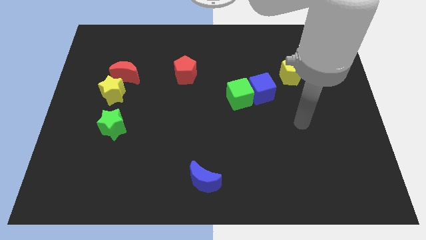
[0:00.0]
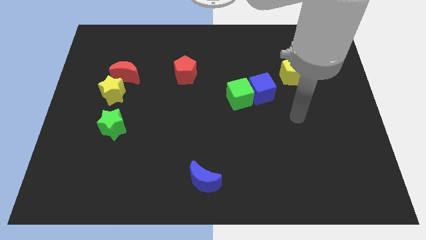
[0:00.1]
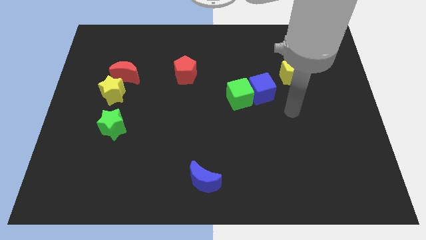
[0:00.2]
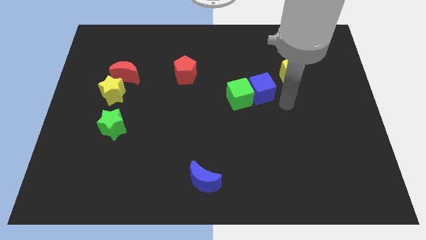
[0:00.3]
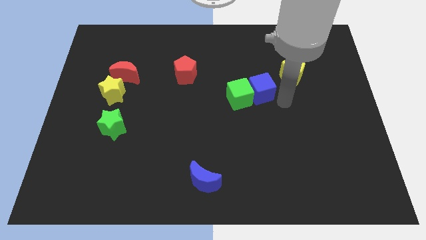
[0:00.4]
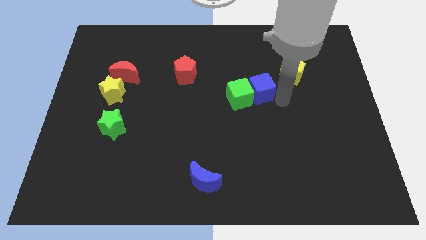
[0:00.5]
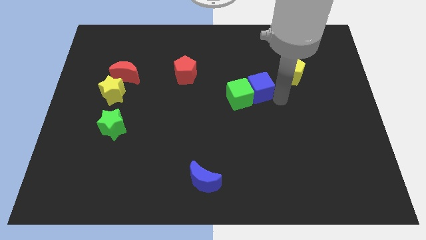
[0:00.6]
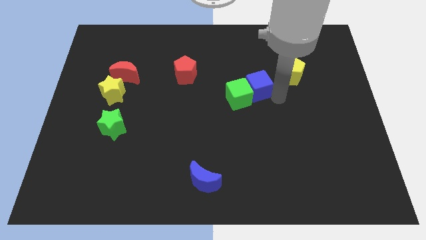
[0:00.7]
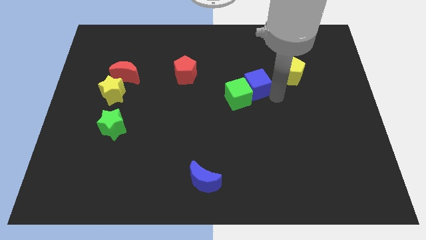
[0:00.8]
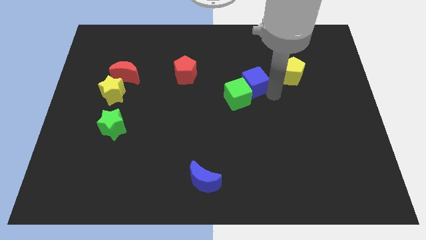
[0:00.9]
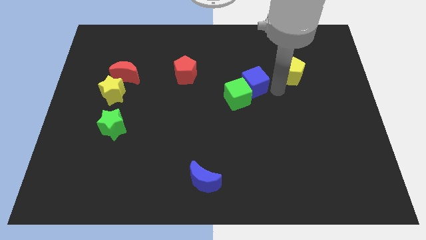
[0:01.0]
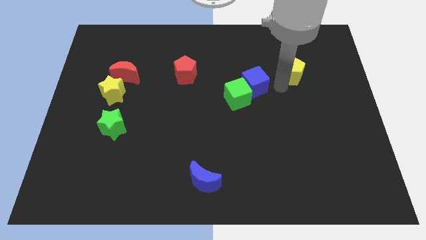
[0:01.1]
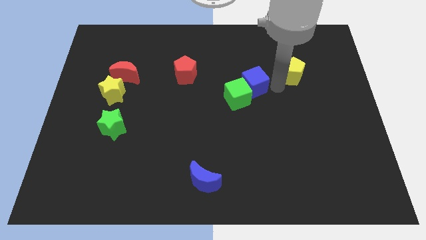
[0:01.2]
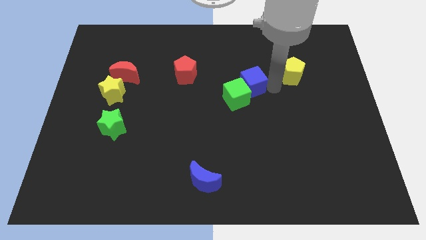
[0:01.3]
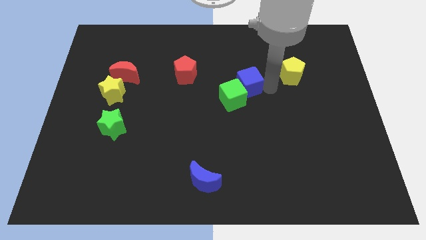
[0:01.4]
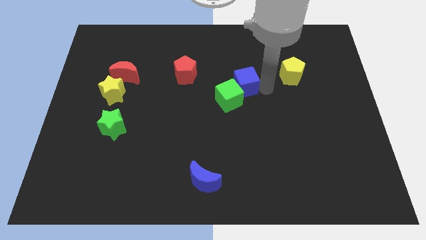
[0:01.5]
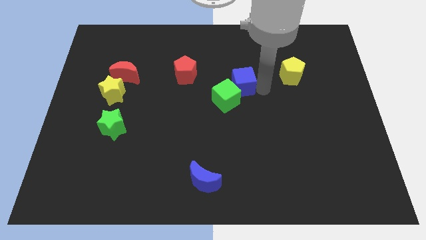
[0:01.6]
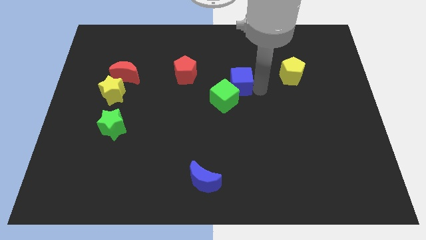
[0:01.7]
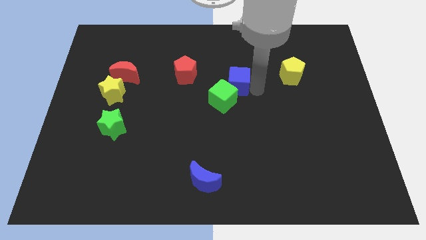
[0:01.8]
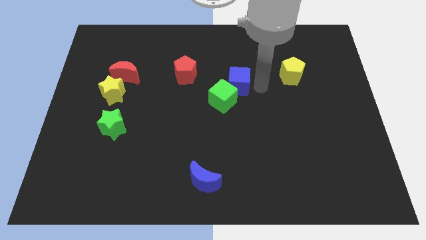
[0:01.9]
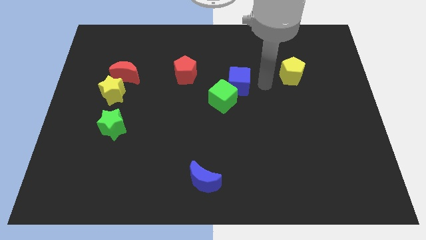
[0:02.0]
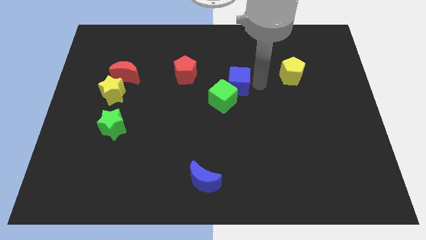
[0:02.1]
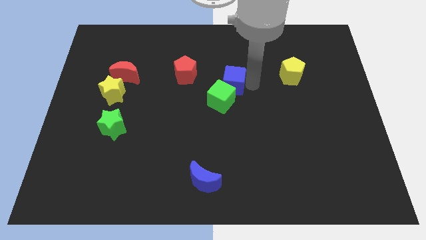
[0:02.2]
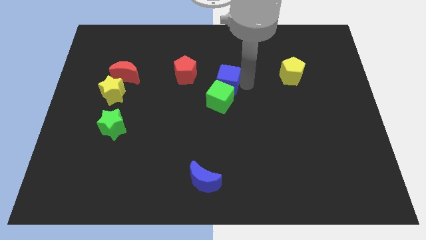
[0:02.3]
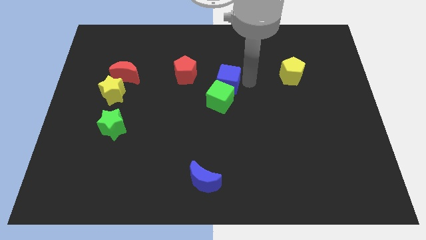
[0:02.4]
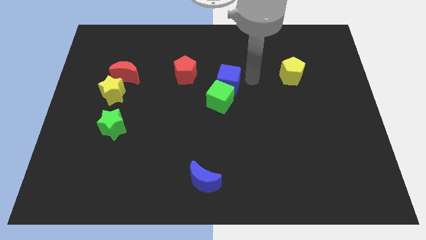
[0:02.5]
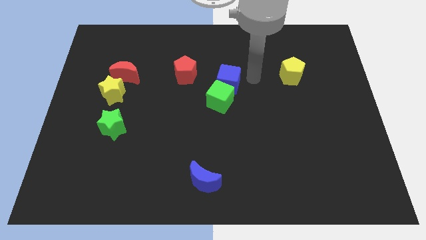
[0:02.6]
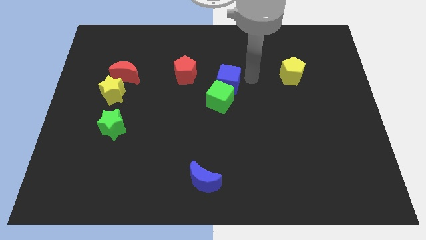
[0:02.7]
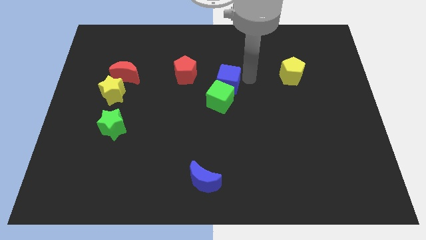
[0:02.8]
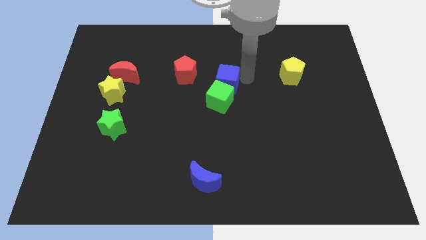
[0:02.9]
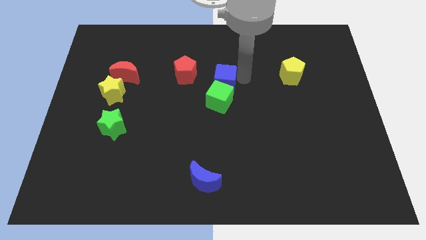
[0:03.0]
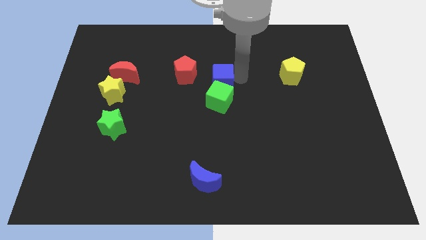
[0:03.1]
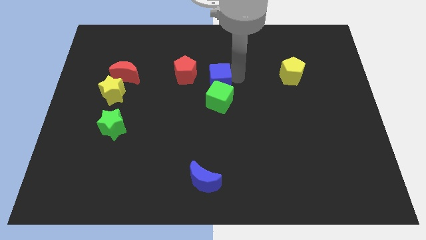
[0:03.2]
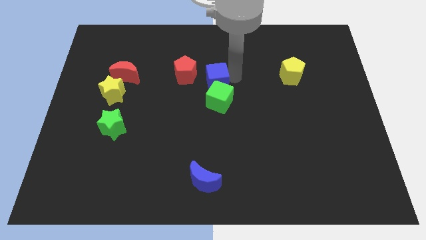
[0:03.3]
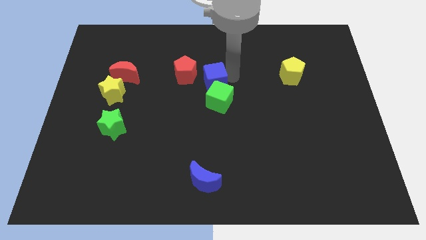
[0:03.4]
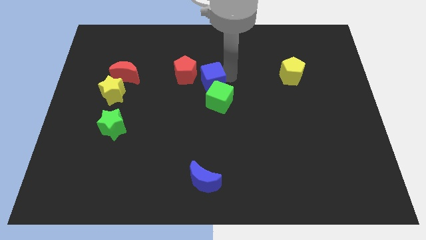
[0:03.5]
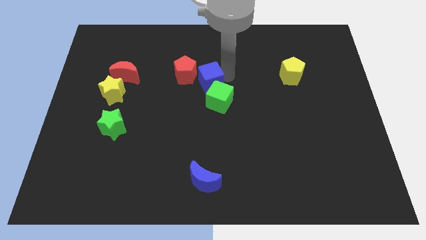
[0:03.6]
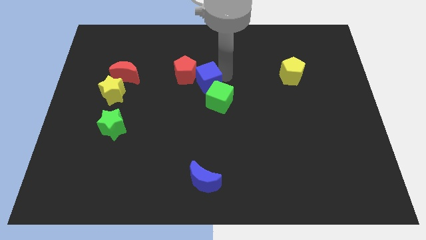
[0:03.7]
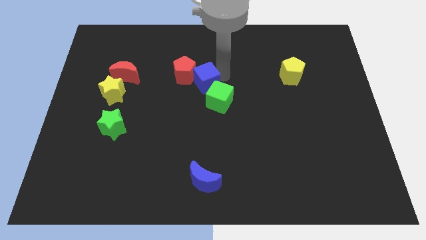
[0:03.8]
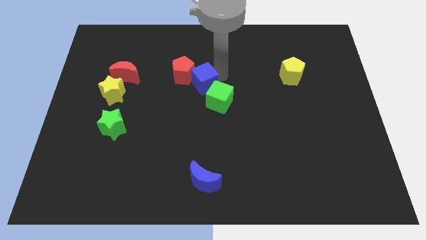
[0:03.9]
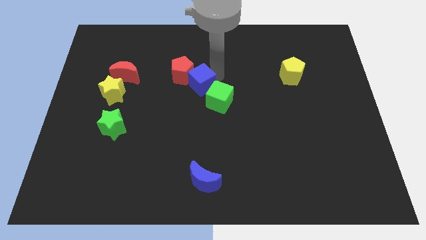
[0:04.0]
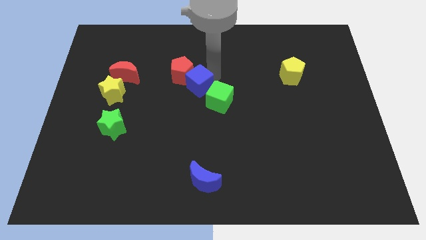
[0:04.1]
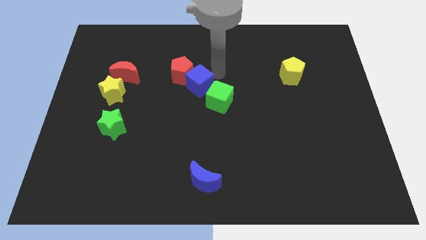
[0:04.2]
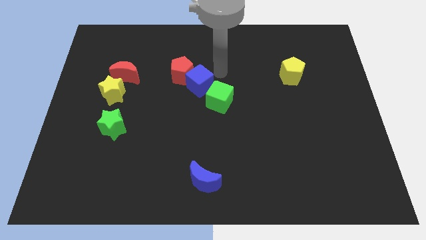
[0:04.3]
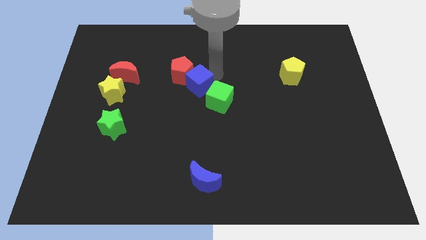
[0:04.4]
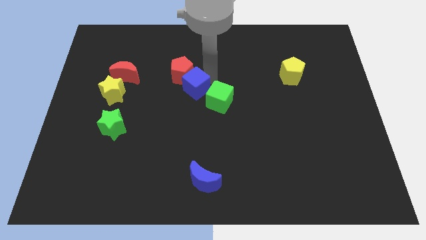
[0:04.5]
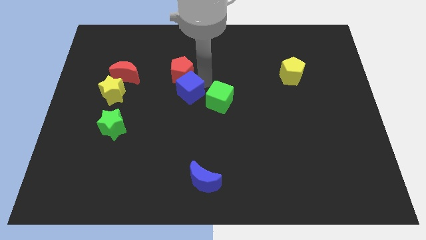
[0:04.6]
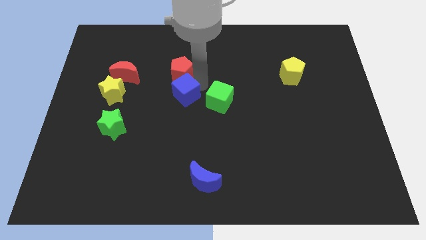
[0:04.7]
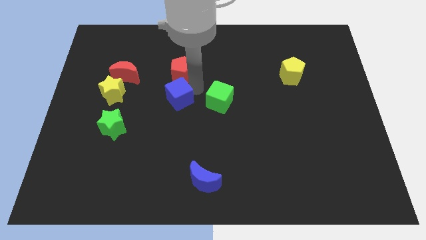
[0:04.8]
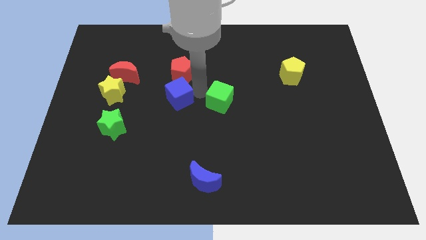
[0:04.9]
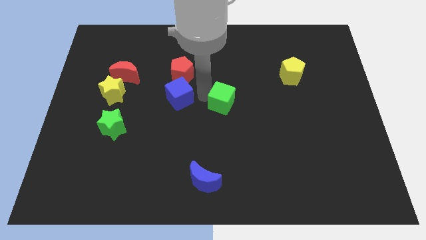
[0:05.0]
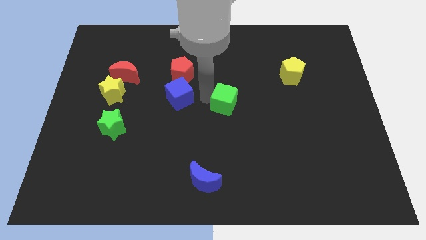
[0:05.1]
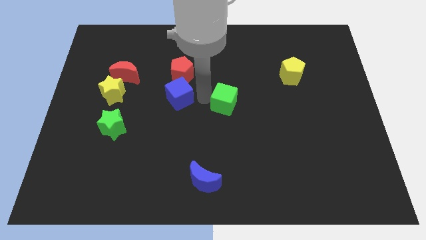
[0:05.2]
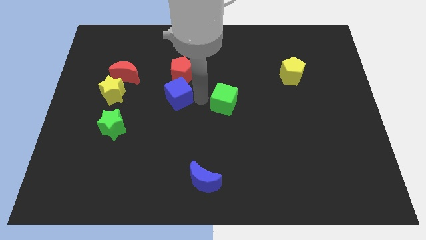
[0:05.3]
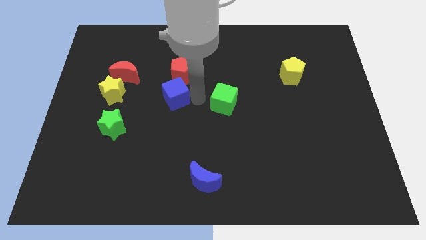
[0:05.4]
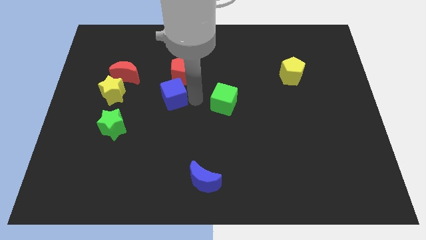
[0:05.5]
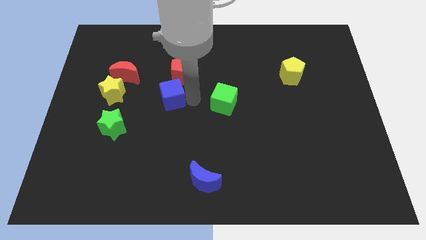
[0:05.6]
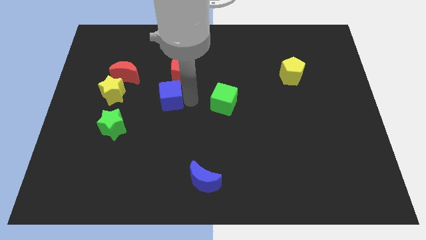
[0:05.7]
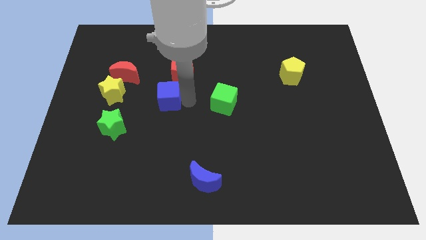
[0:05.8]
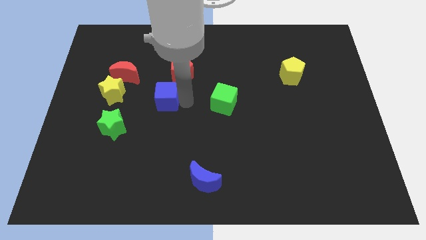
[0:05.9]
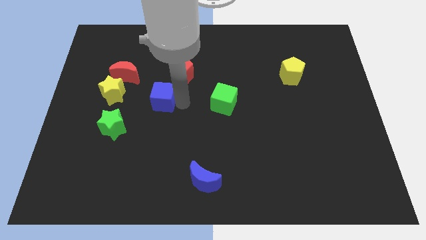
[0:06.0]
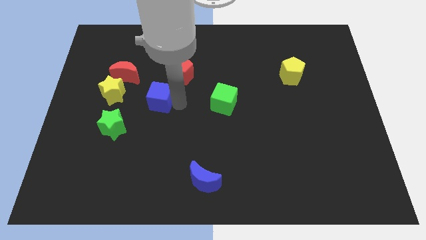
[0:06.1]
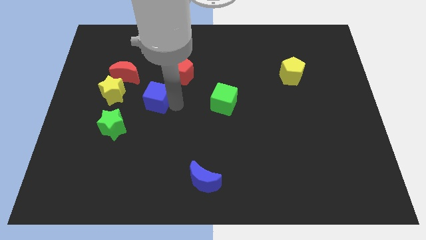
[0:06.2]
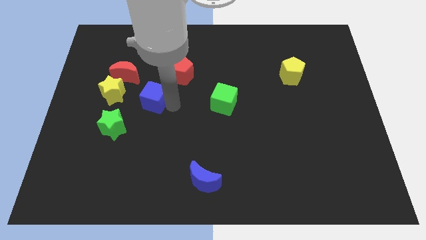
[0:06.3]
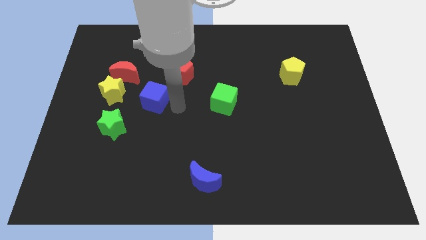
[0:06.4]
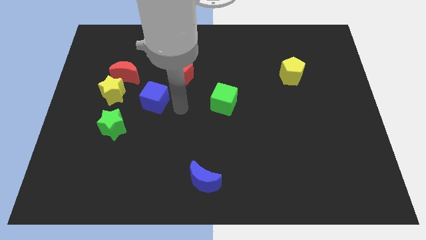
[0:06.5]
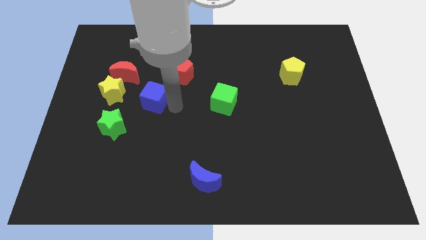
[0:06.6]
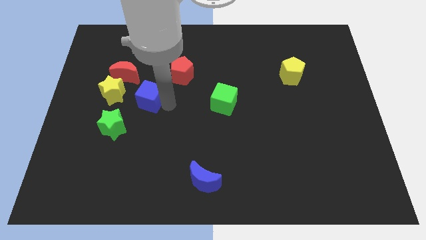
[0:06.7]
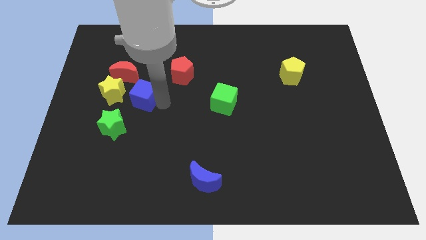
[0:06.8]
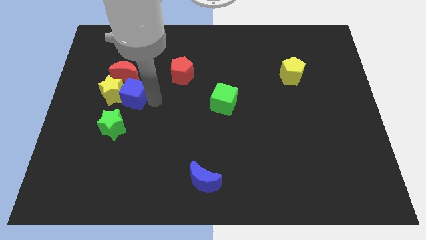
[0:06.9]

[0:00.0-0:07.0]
move the blue cube close to the yellow star
